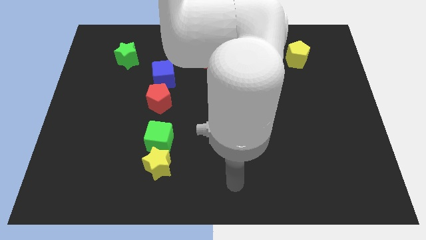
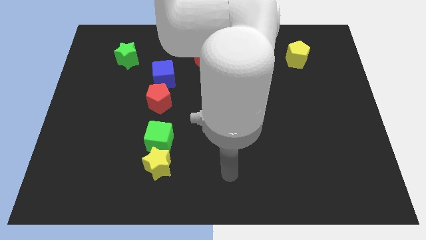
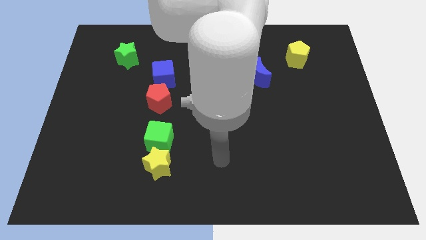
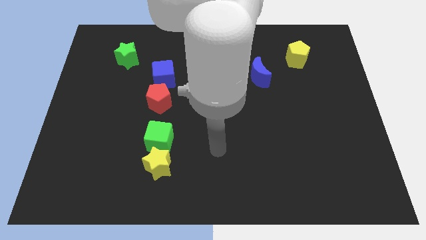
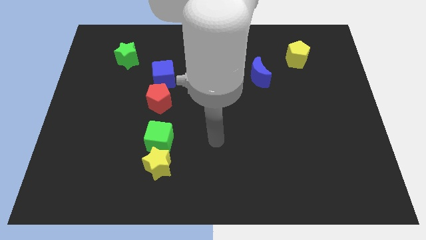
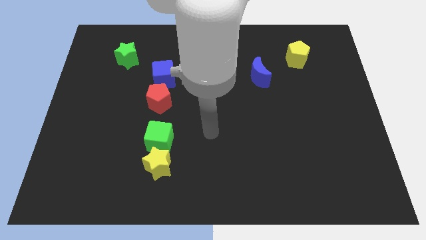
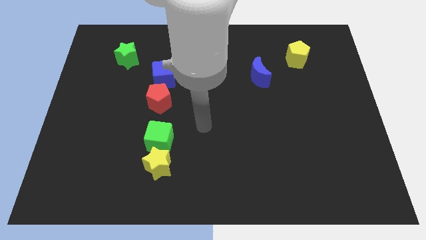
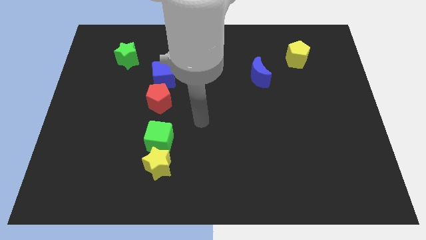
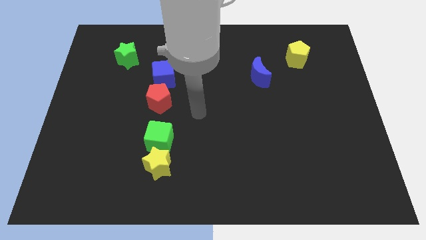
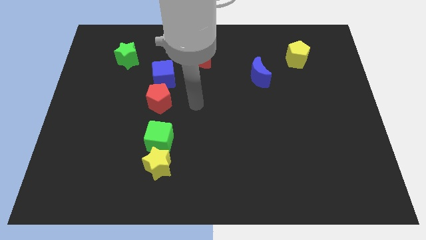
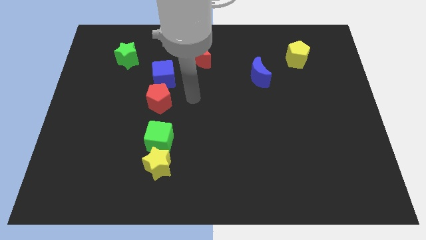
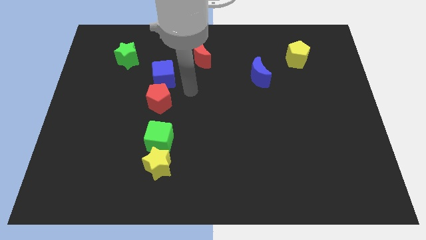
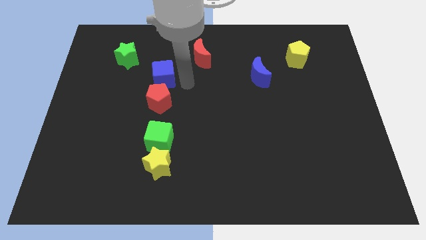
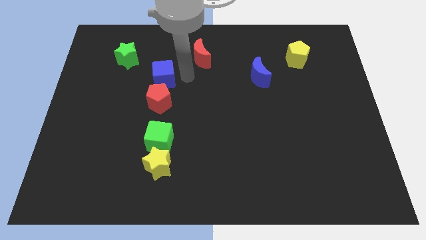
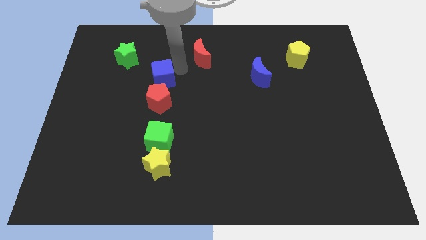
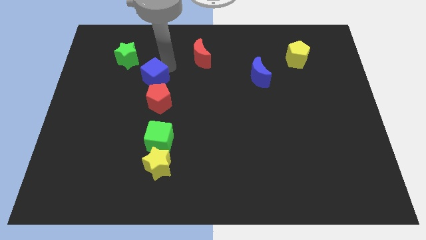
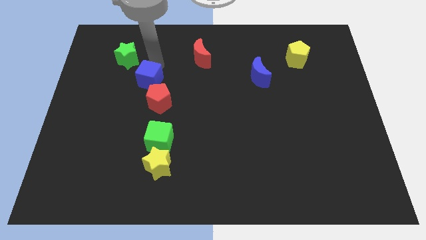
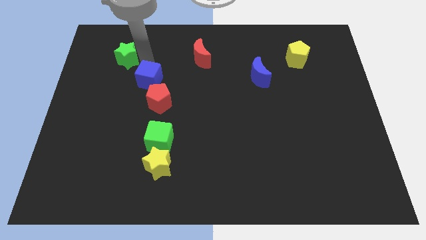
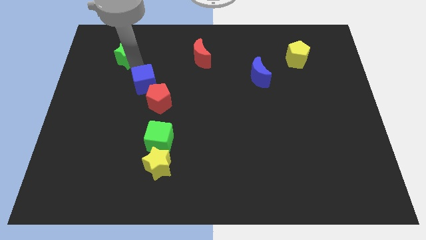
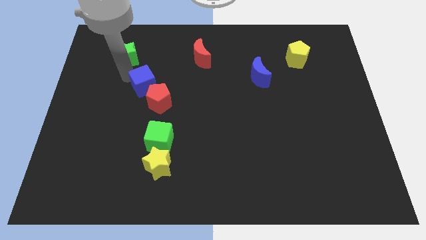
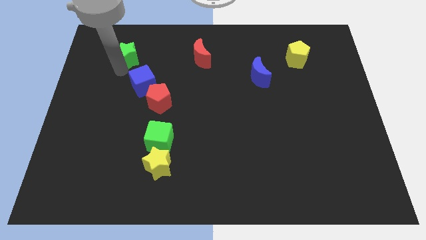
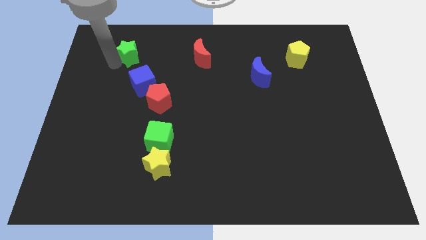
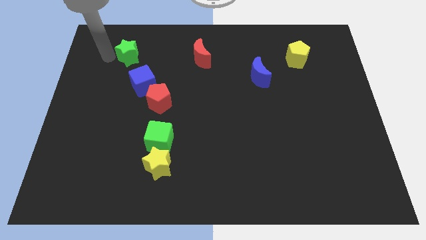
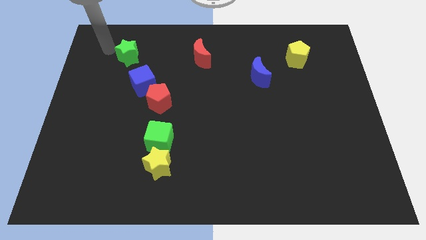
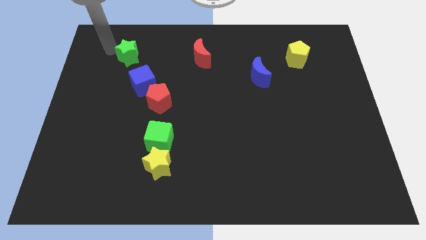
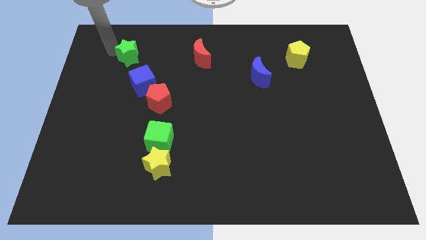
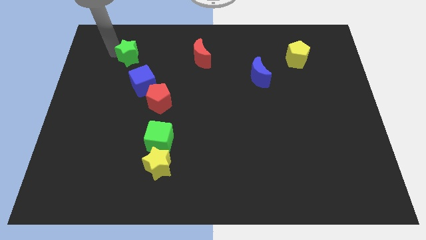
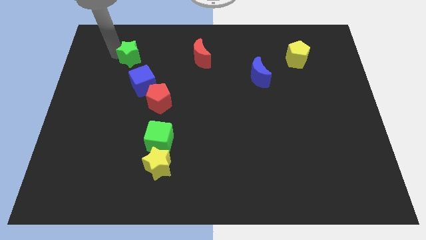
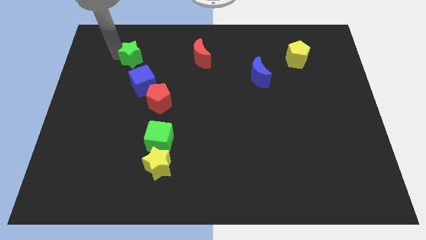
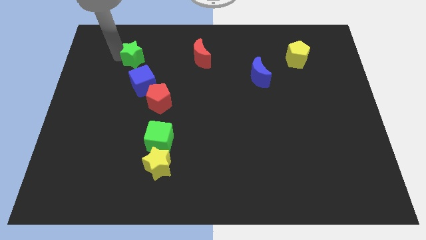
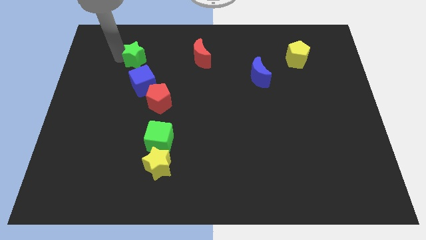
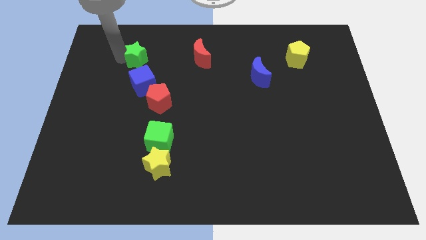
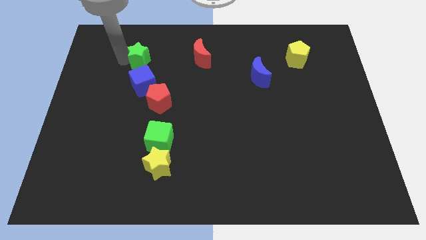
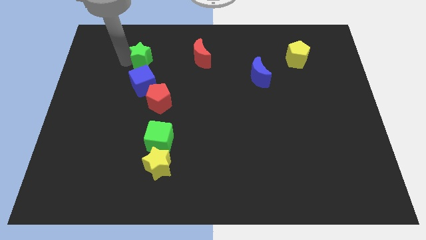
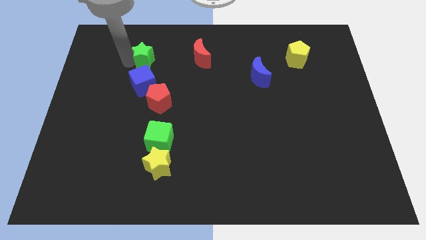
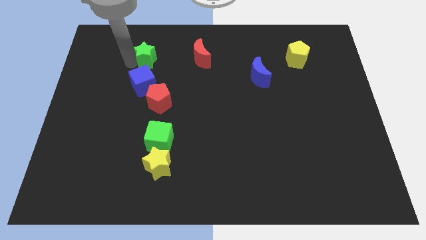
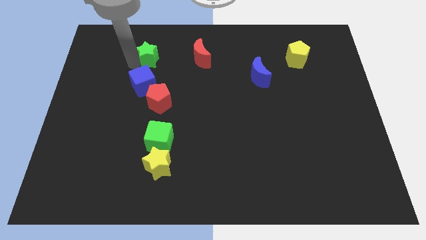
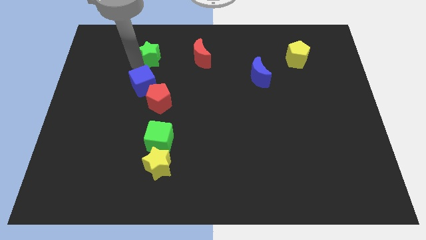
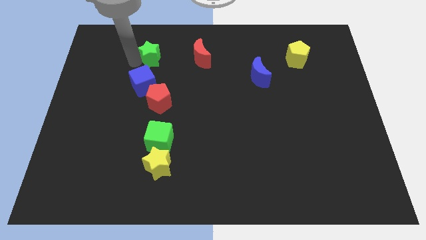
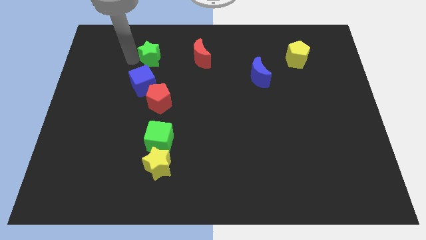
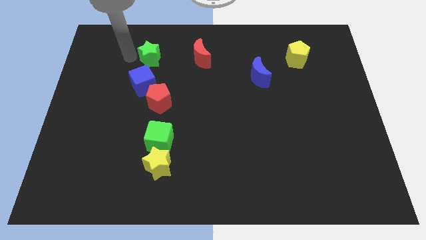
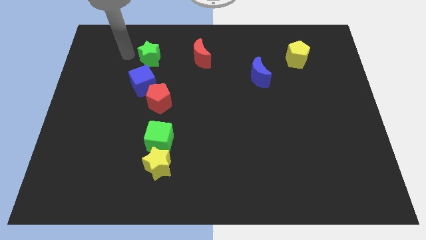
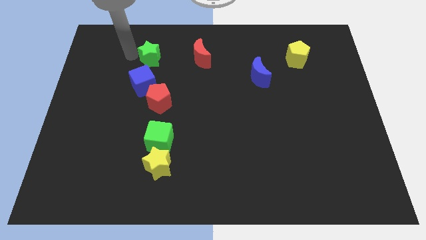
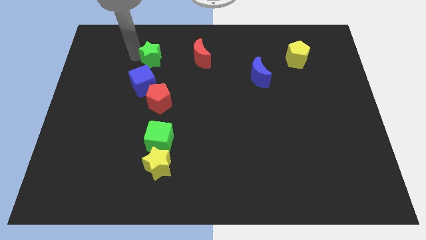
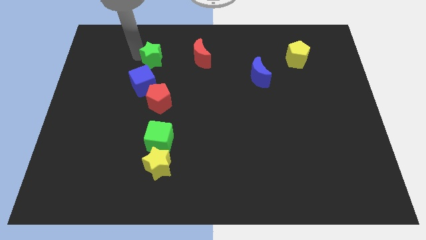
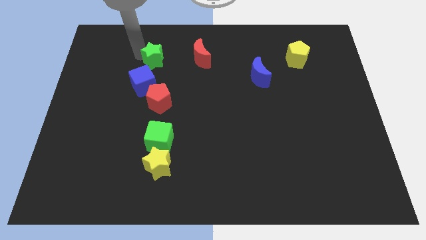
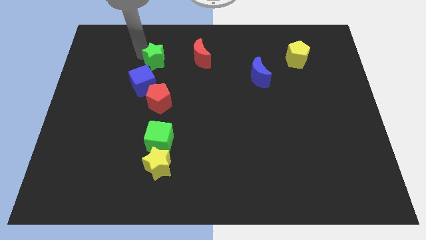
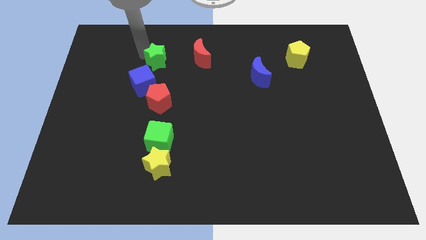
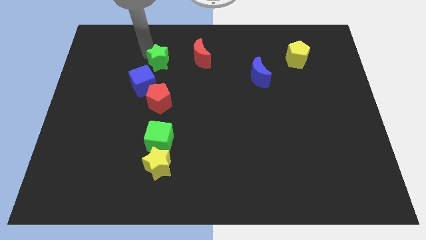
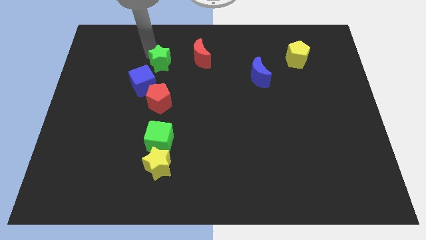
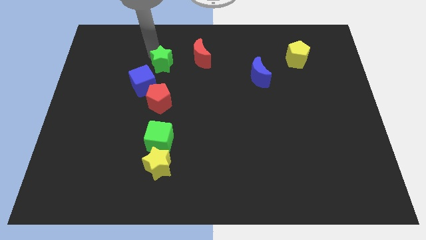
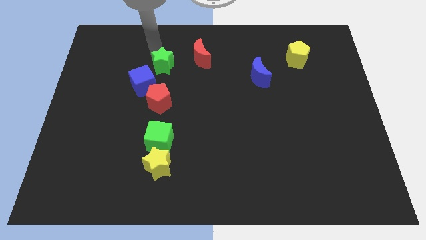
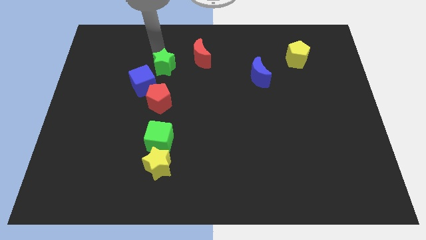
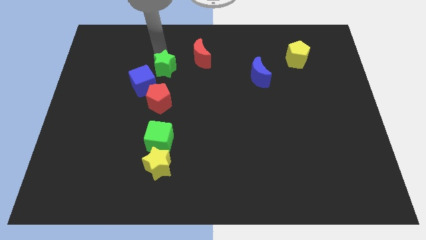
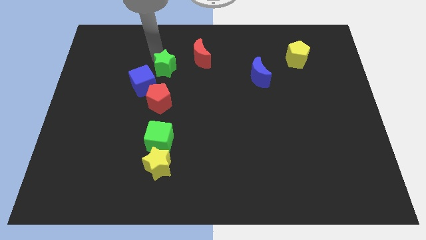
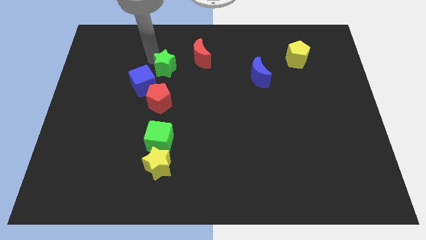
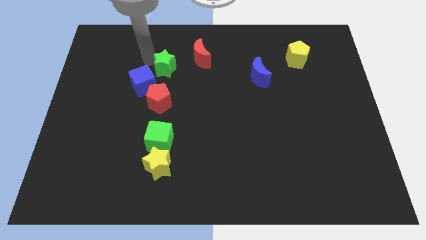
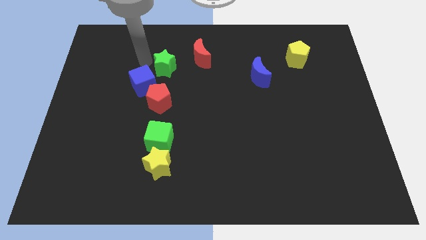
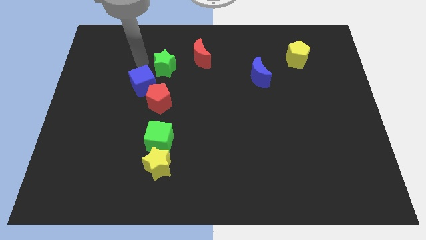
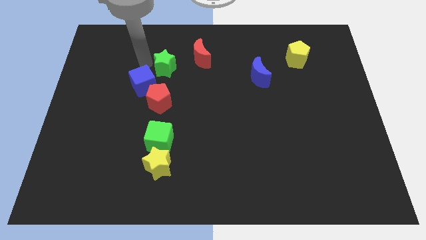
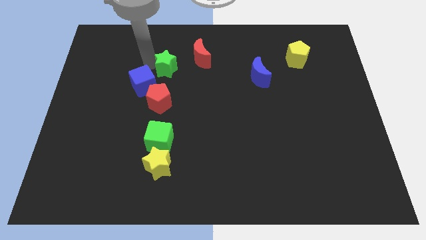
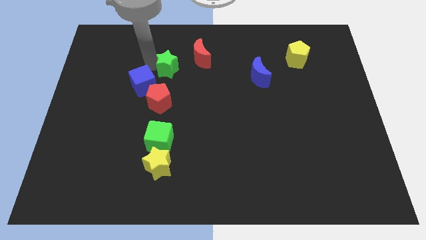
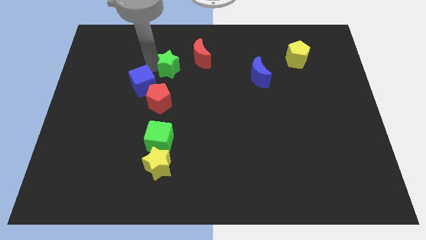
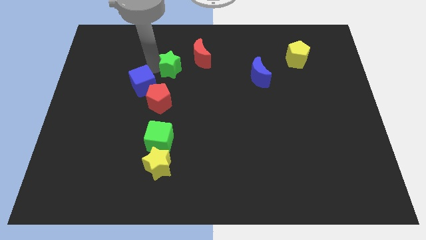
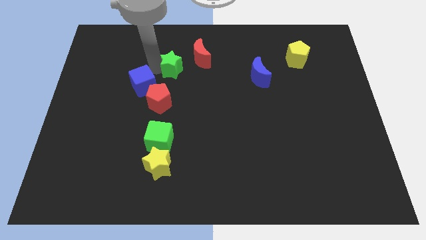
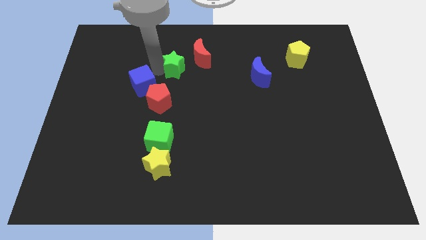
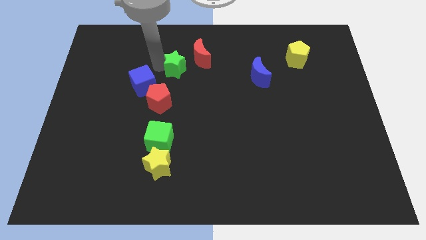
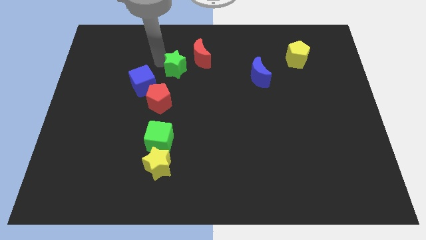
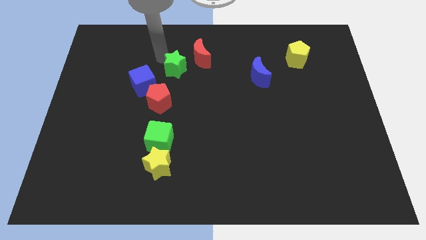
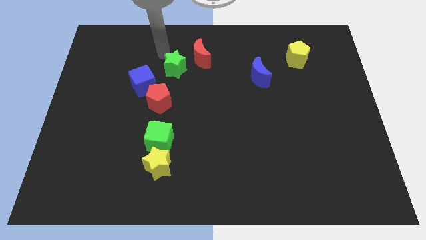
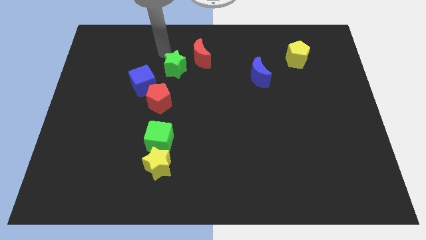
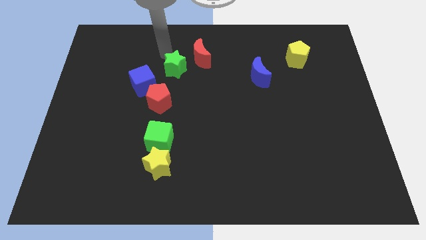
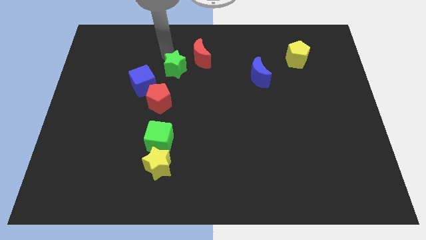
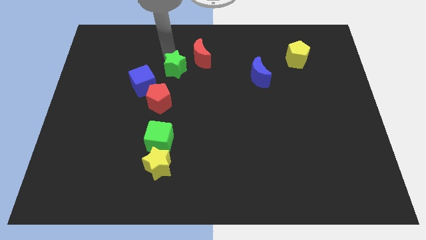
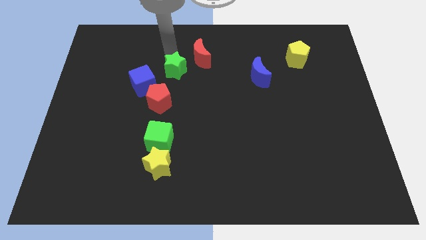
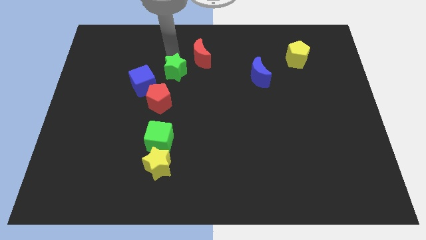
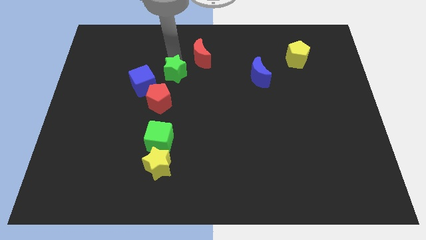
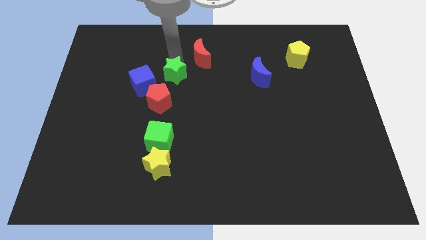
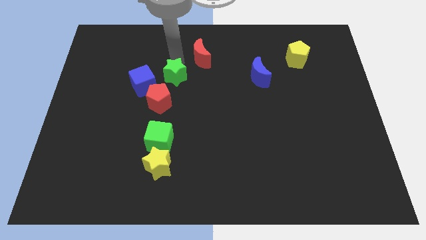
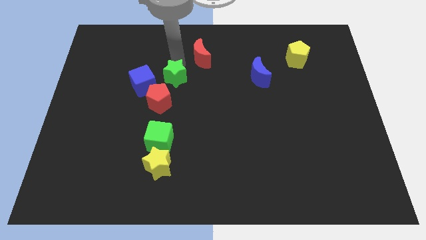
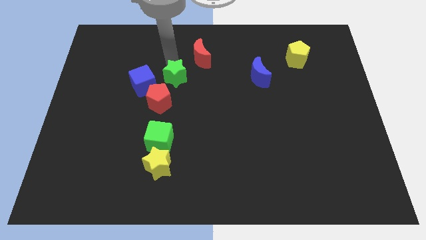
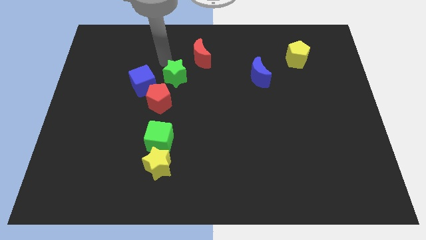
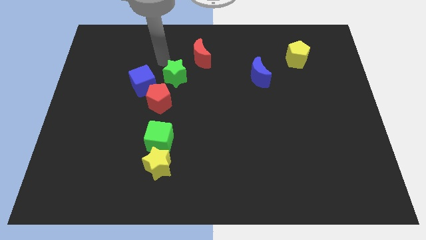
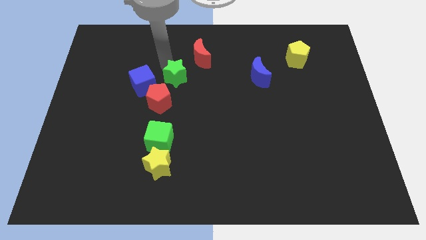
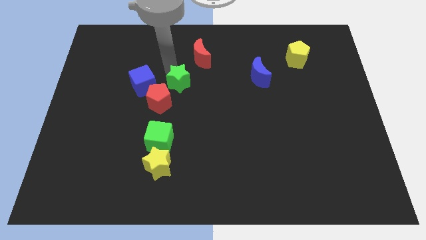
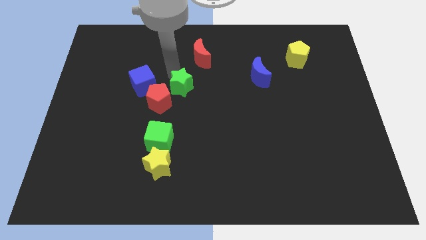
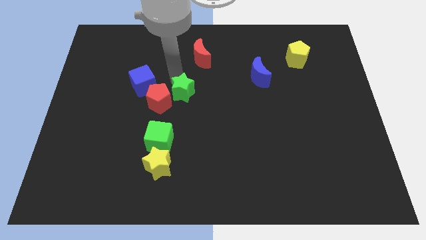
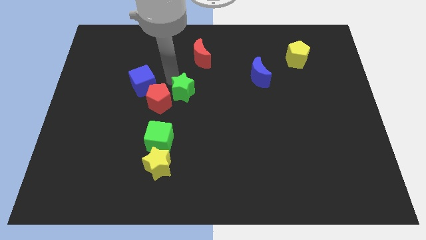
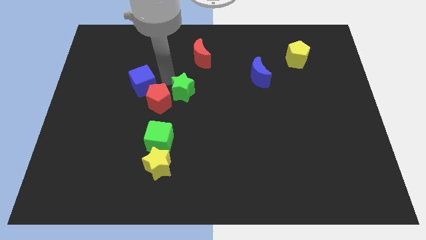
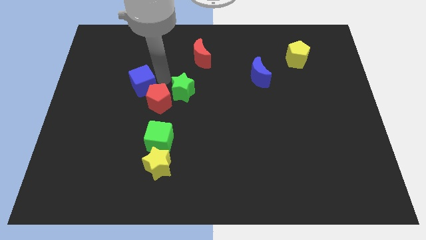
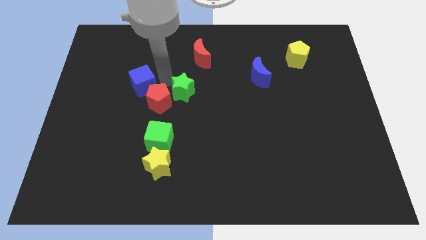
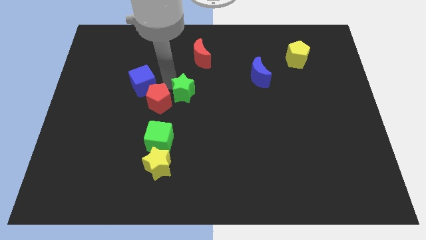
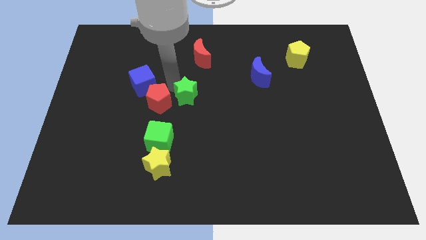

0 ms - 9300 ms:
push the green star downwards and to the right
